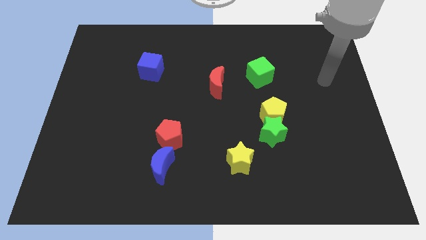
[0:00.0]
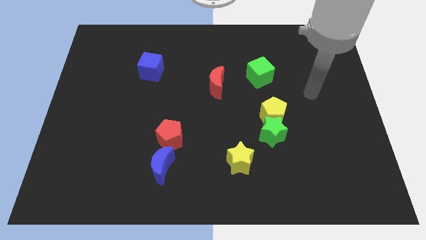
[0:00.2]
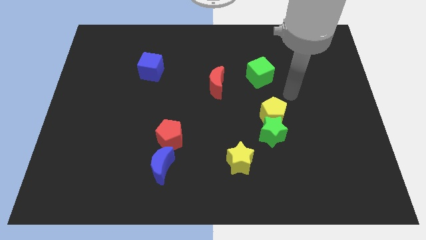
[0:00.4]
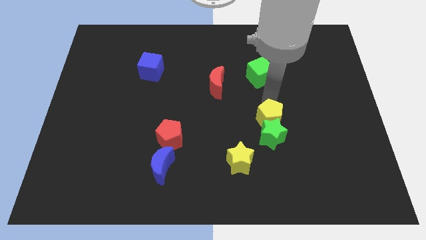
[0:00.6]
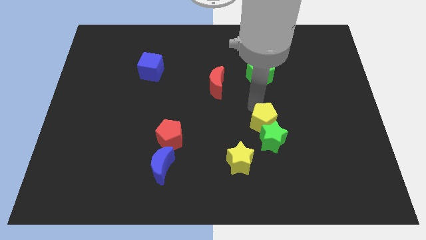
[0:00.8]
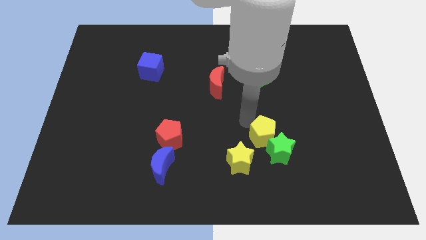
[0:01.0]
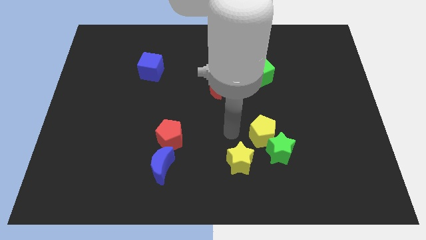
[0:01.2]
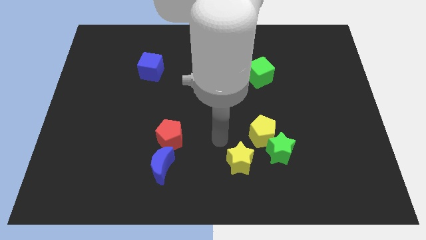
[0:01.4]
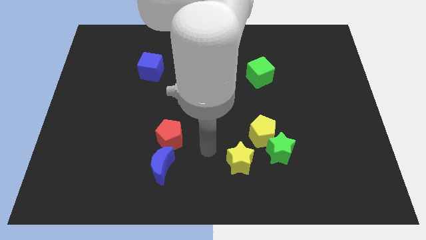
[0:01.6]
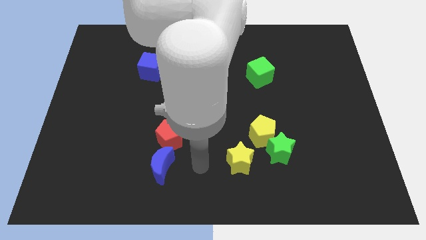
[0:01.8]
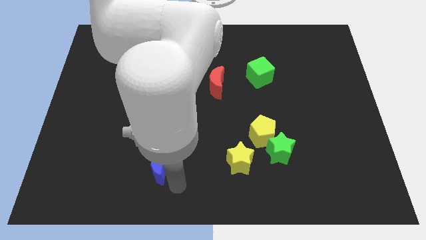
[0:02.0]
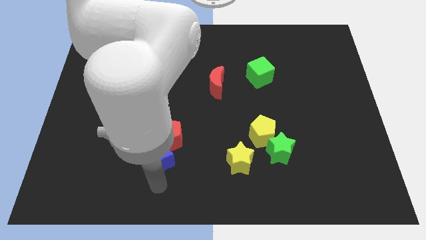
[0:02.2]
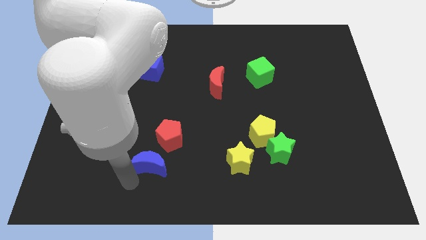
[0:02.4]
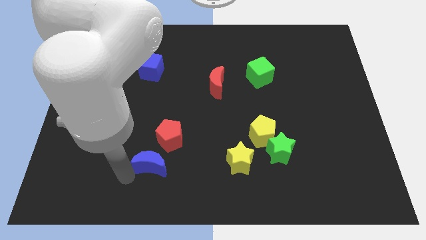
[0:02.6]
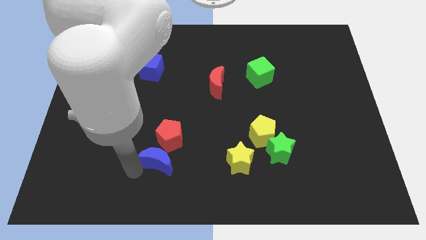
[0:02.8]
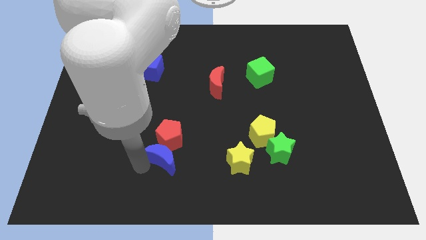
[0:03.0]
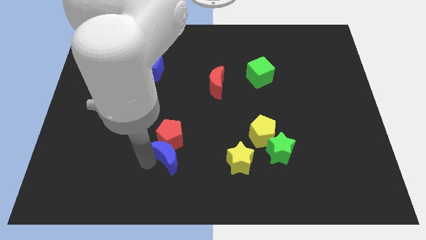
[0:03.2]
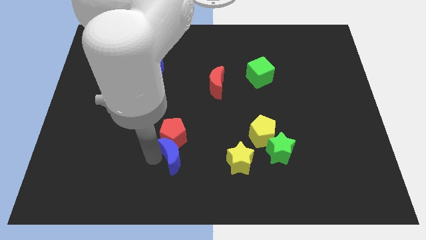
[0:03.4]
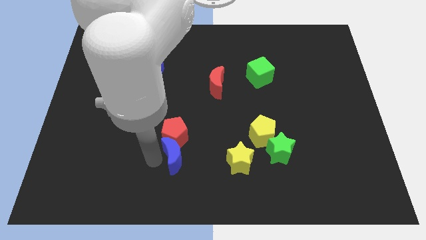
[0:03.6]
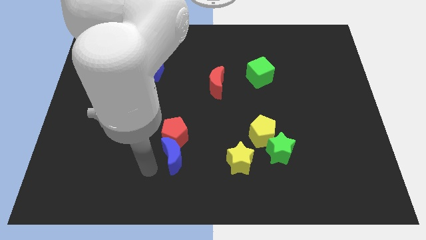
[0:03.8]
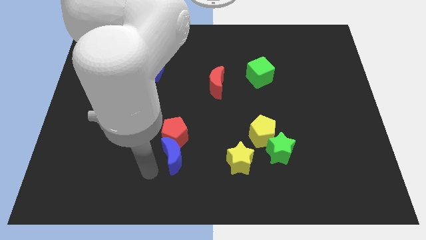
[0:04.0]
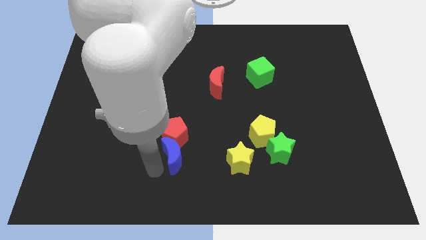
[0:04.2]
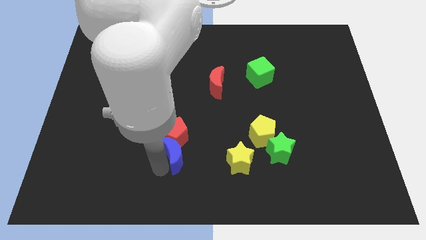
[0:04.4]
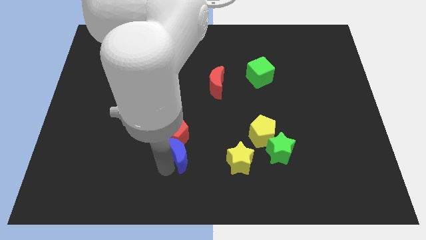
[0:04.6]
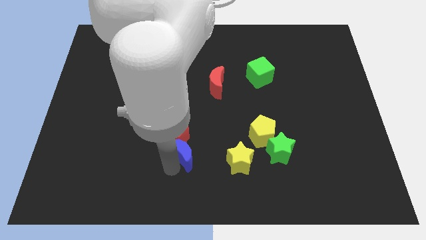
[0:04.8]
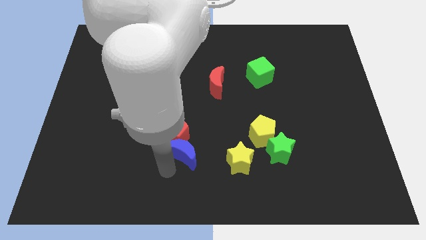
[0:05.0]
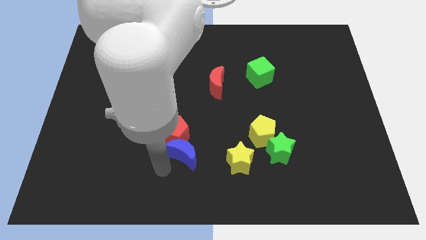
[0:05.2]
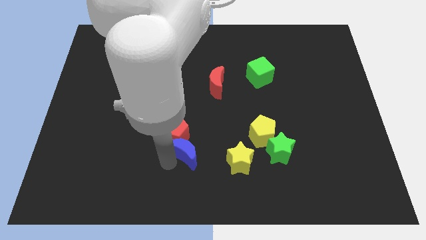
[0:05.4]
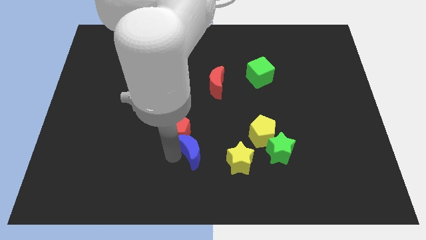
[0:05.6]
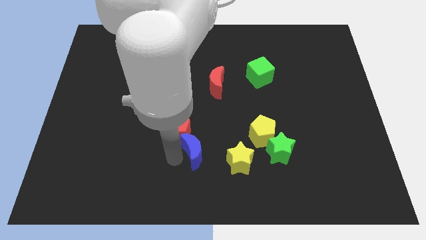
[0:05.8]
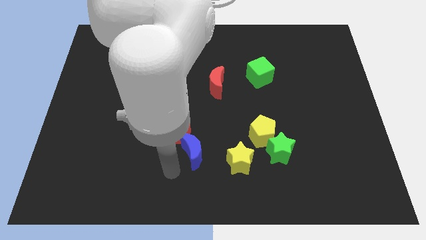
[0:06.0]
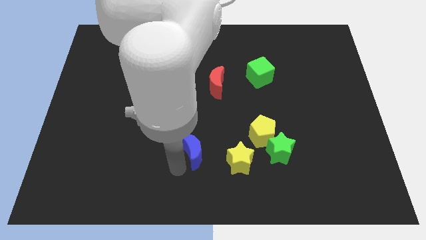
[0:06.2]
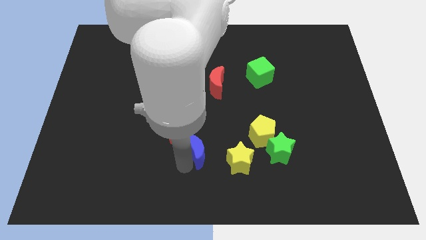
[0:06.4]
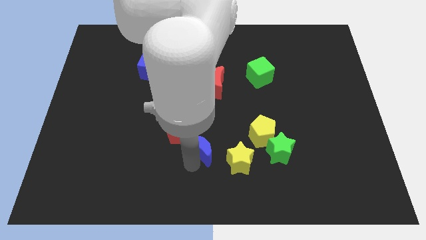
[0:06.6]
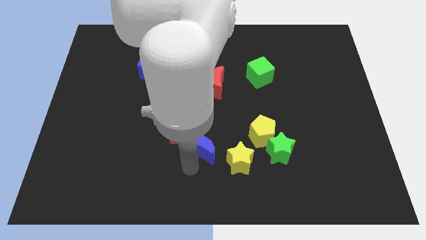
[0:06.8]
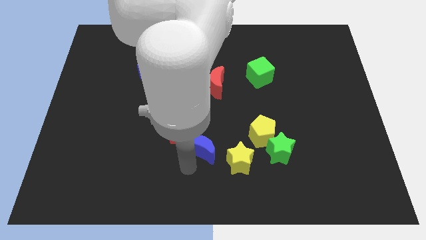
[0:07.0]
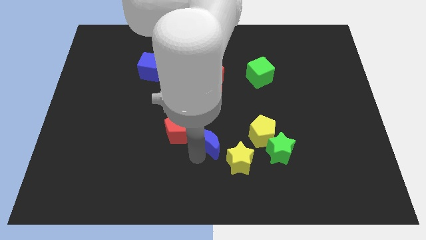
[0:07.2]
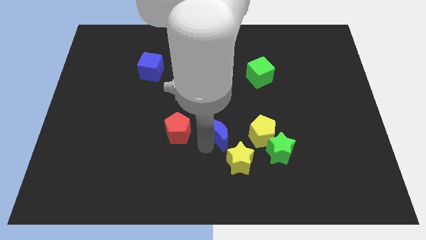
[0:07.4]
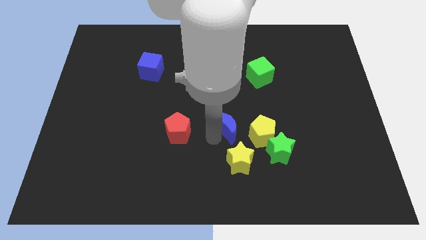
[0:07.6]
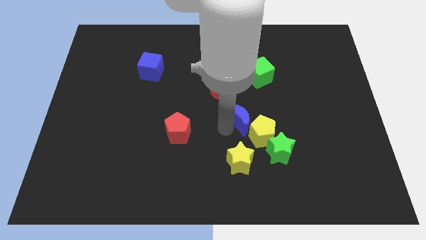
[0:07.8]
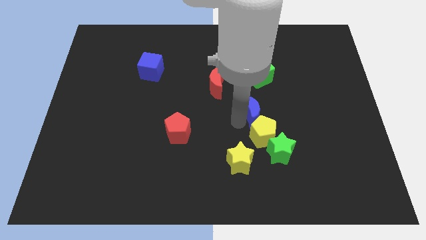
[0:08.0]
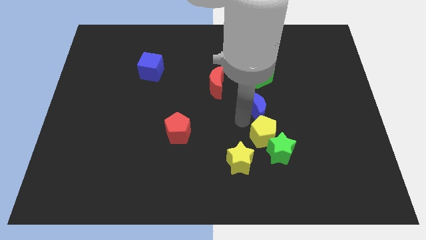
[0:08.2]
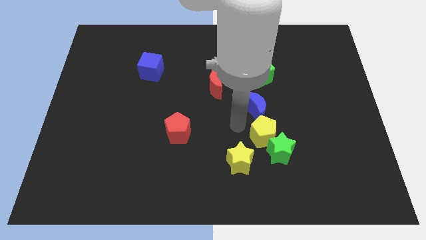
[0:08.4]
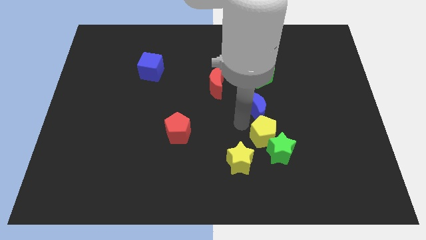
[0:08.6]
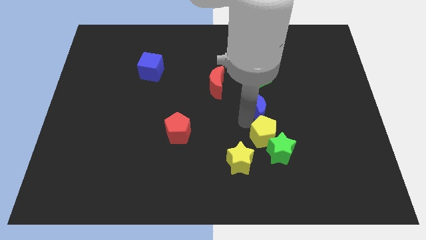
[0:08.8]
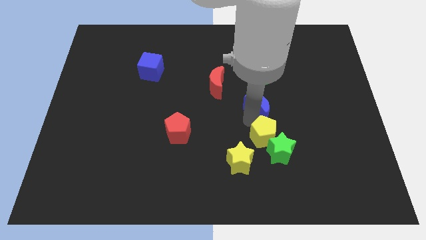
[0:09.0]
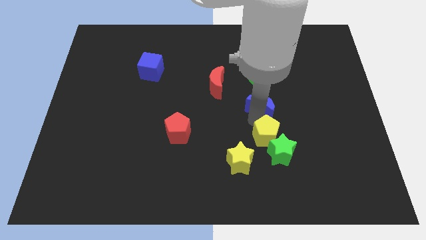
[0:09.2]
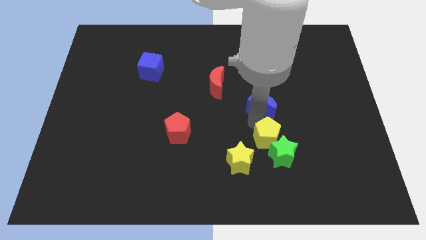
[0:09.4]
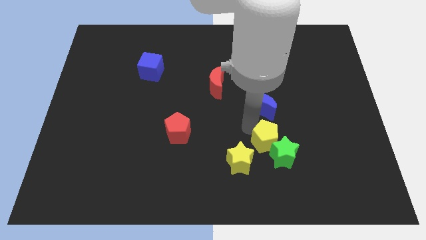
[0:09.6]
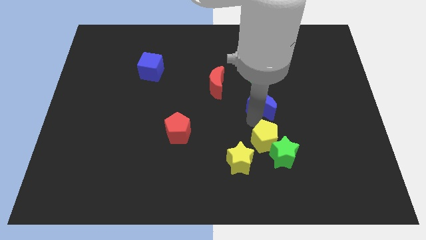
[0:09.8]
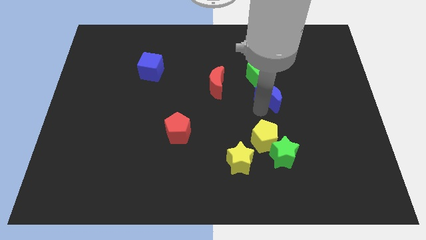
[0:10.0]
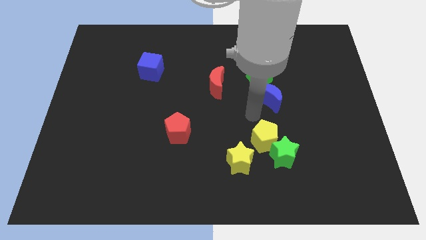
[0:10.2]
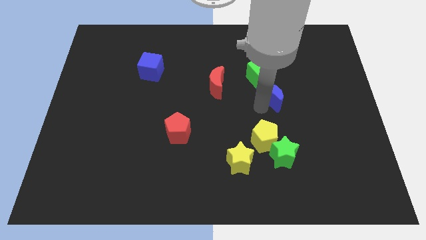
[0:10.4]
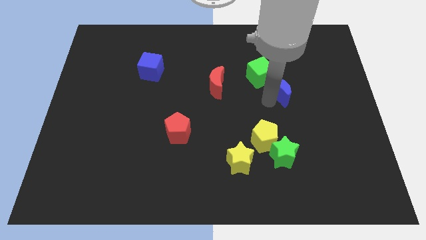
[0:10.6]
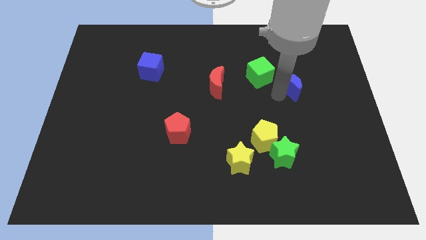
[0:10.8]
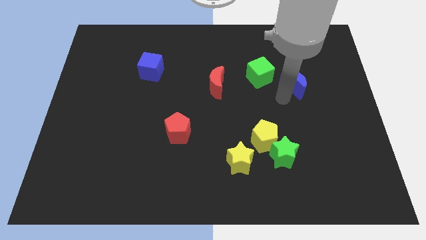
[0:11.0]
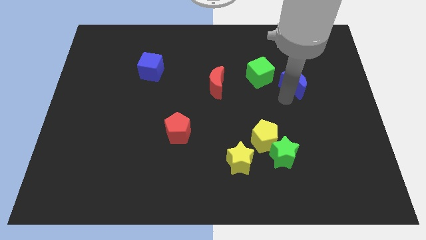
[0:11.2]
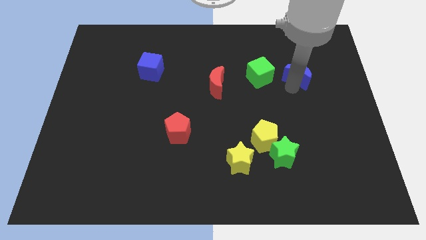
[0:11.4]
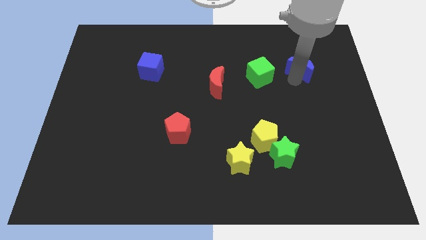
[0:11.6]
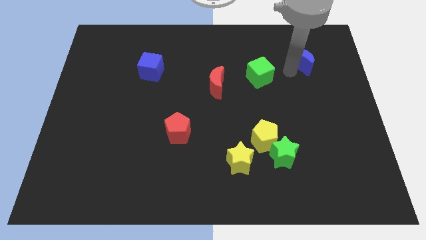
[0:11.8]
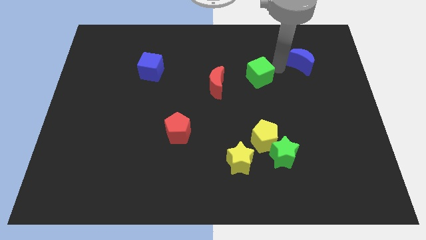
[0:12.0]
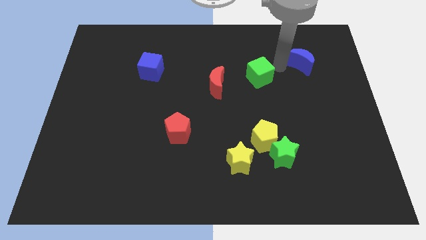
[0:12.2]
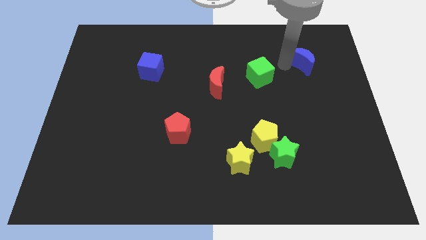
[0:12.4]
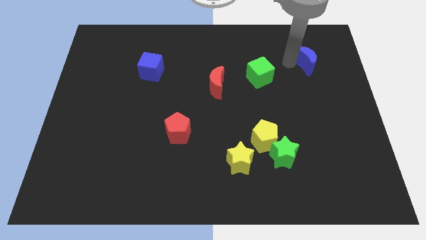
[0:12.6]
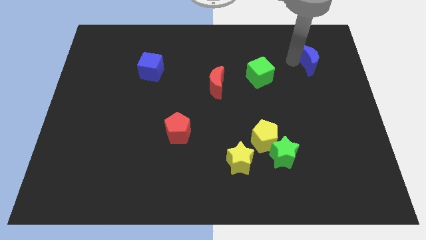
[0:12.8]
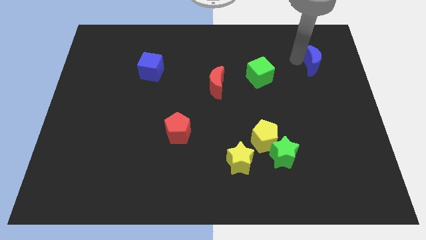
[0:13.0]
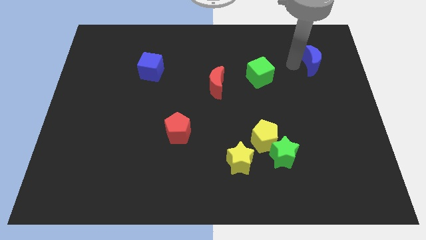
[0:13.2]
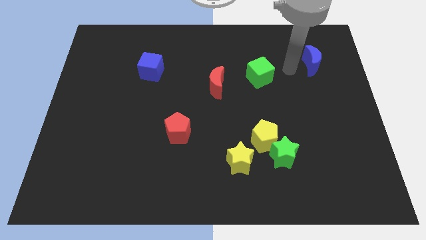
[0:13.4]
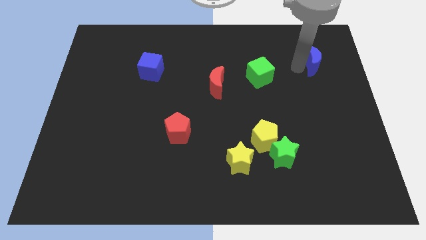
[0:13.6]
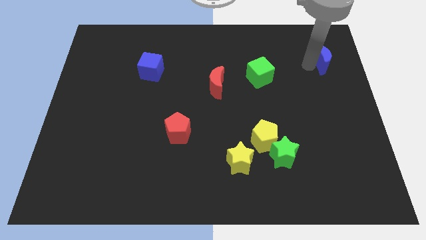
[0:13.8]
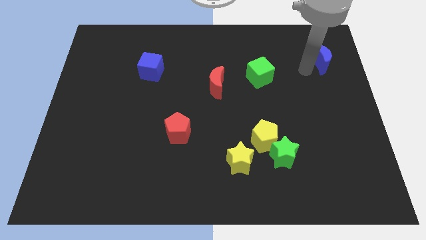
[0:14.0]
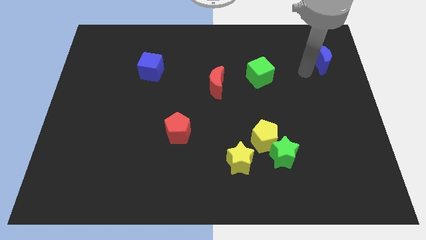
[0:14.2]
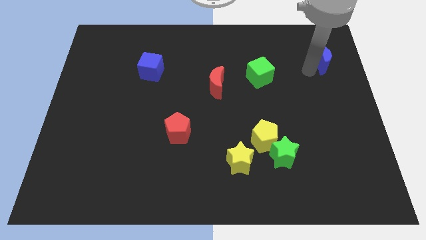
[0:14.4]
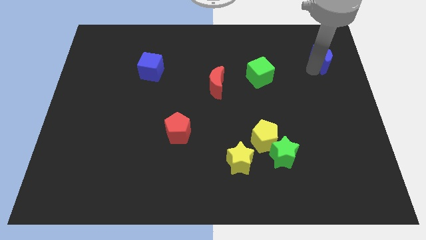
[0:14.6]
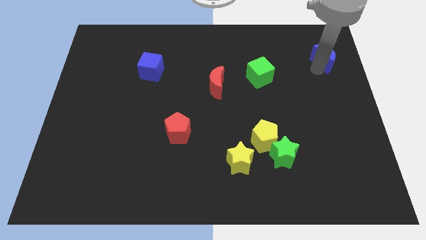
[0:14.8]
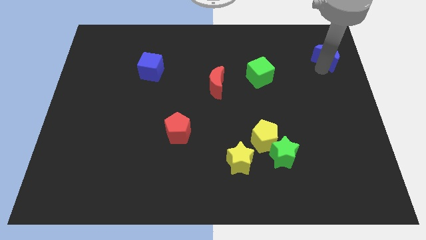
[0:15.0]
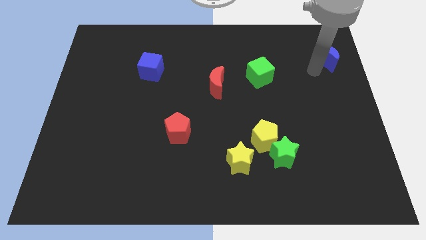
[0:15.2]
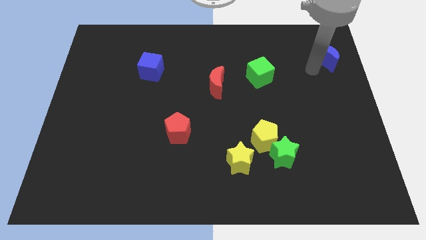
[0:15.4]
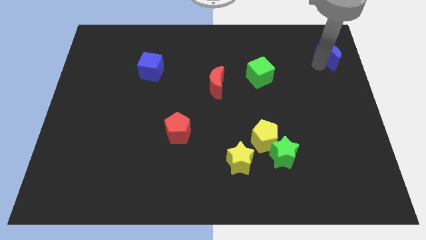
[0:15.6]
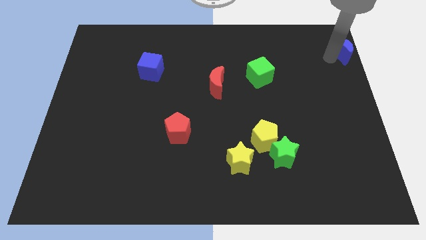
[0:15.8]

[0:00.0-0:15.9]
move the blue moon to the top right
